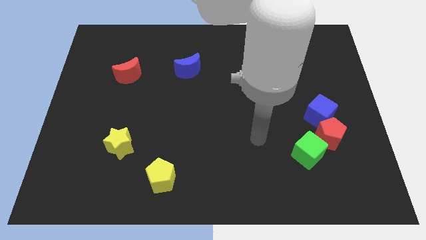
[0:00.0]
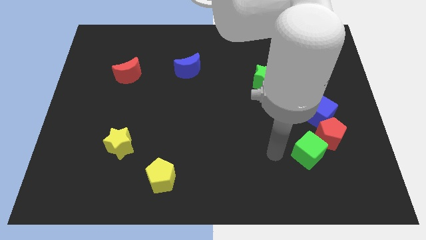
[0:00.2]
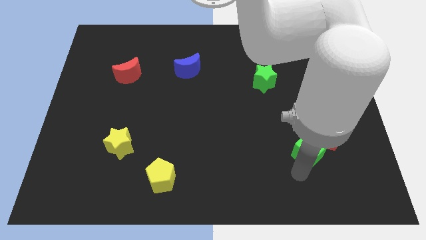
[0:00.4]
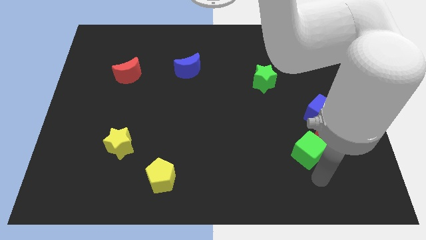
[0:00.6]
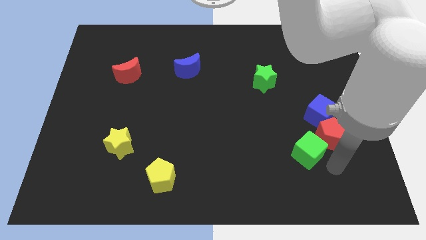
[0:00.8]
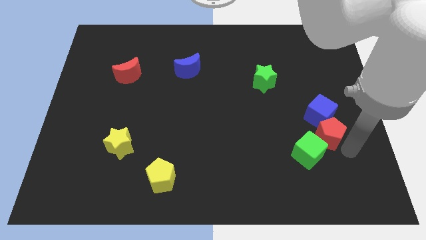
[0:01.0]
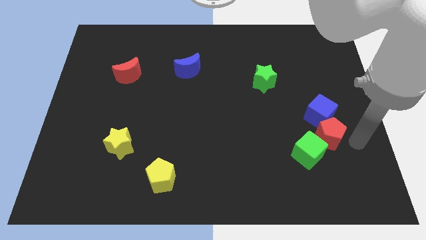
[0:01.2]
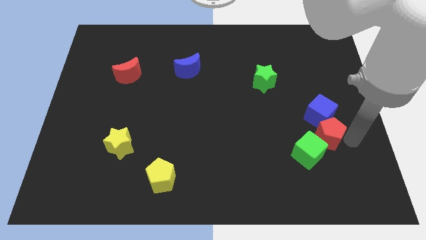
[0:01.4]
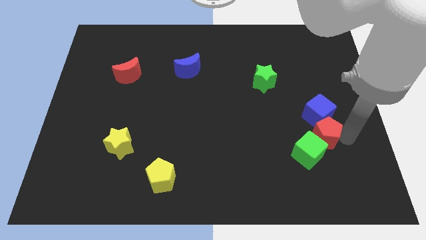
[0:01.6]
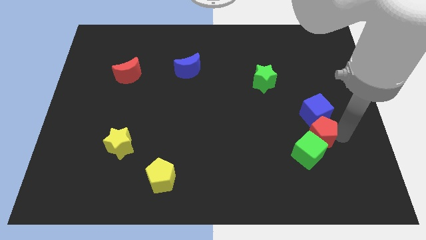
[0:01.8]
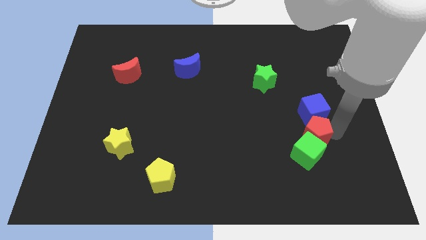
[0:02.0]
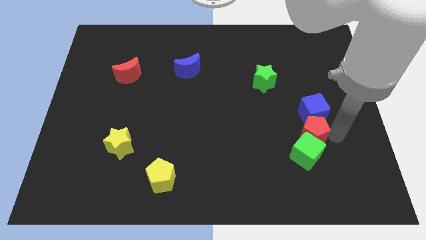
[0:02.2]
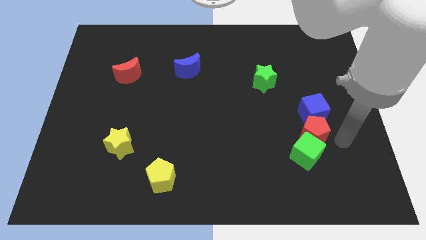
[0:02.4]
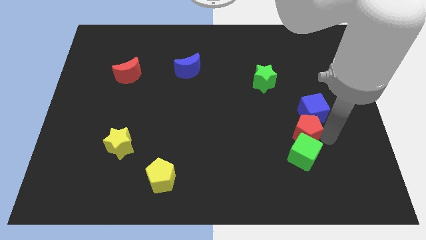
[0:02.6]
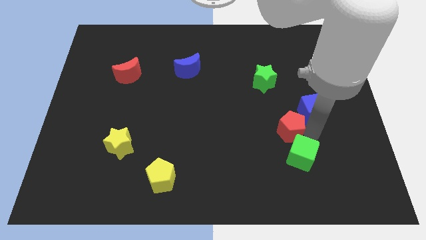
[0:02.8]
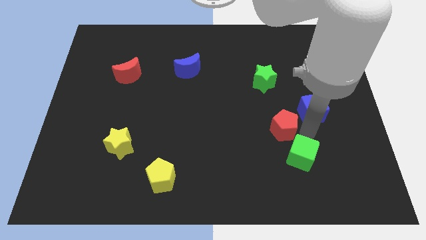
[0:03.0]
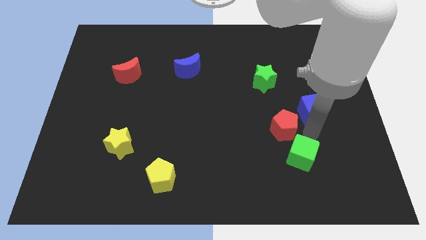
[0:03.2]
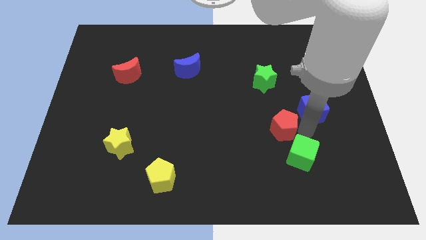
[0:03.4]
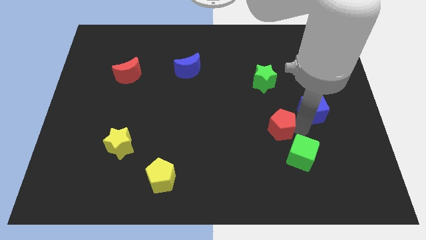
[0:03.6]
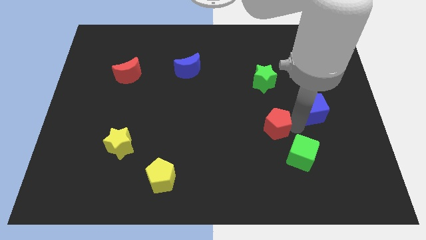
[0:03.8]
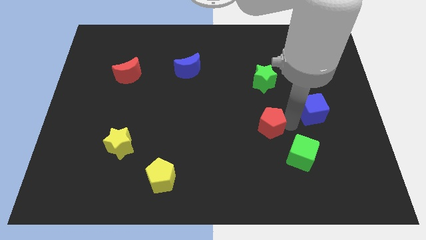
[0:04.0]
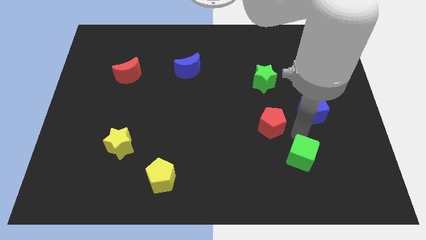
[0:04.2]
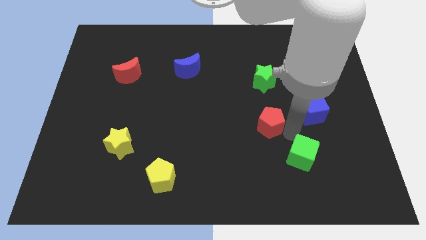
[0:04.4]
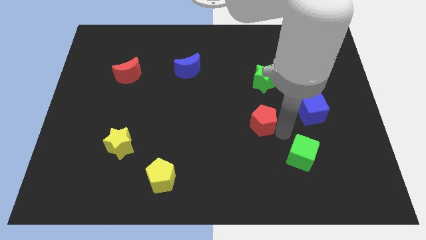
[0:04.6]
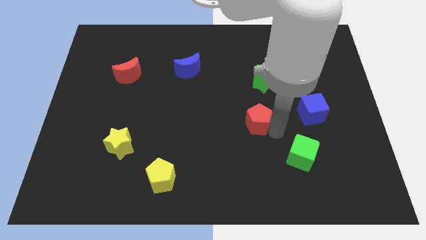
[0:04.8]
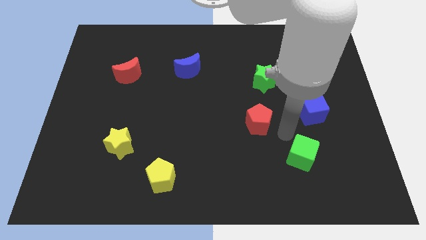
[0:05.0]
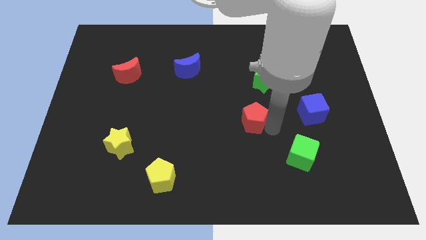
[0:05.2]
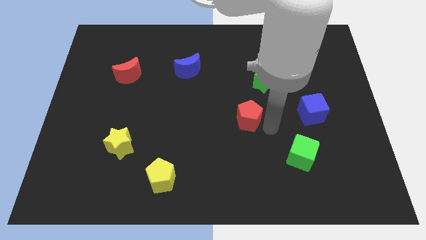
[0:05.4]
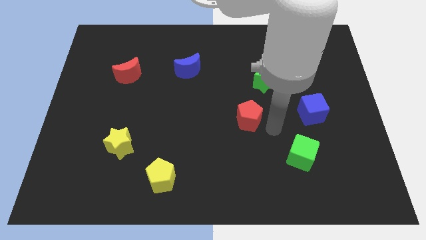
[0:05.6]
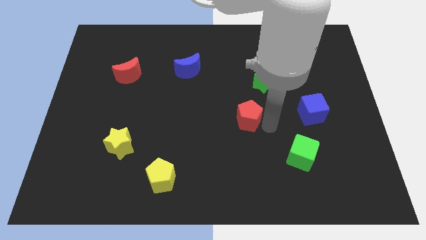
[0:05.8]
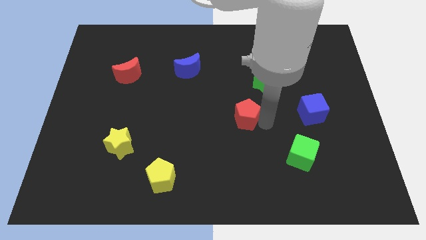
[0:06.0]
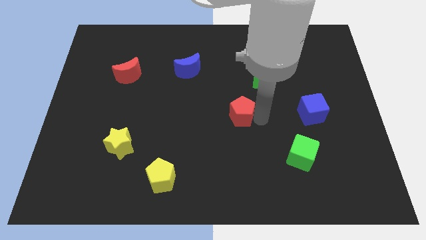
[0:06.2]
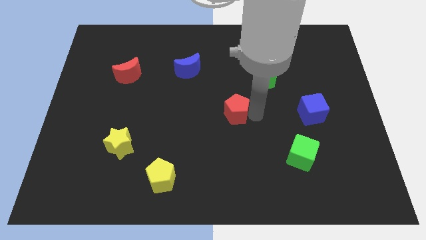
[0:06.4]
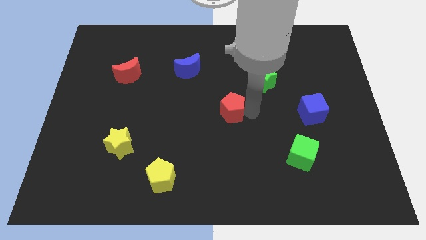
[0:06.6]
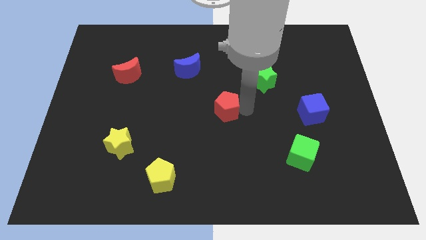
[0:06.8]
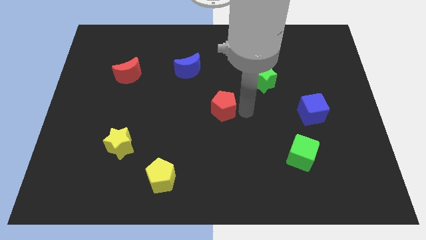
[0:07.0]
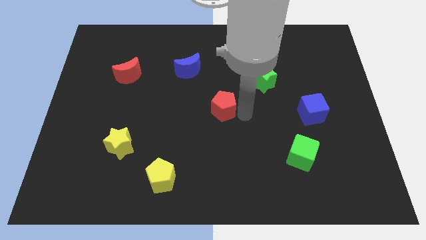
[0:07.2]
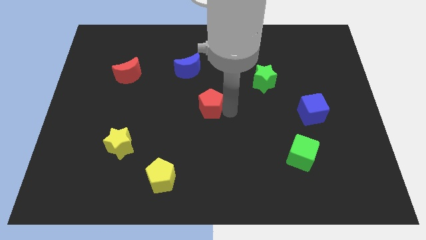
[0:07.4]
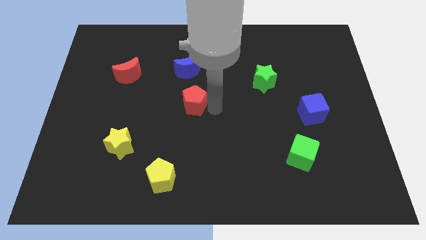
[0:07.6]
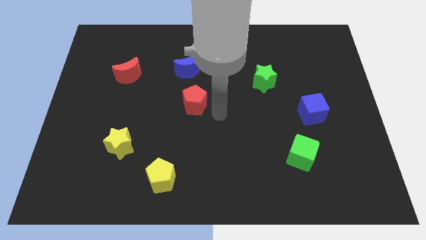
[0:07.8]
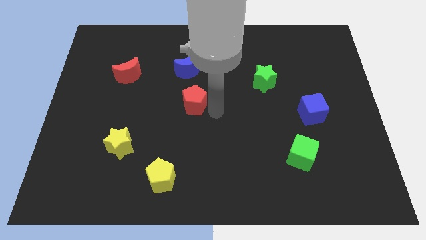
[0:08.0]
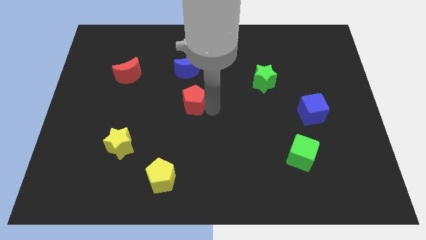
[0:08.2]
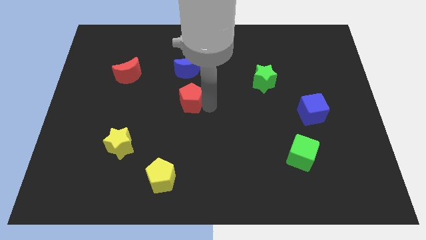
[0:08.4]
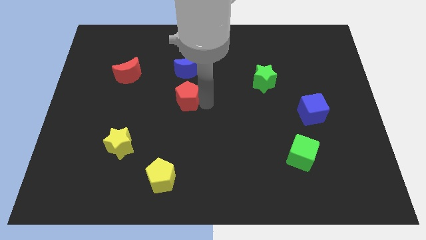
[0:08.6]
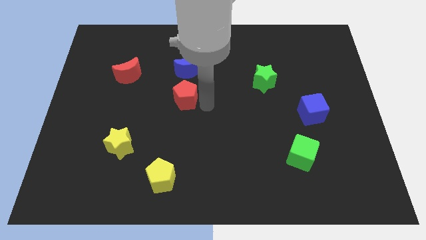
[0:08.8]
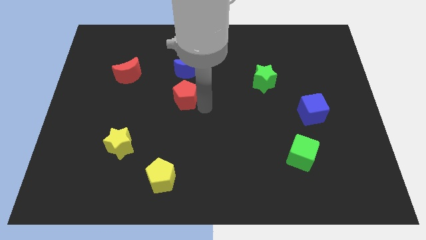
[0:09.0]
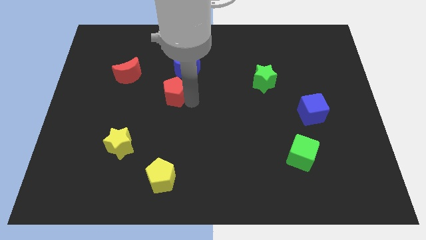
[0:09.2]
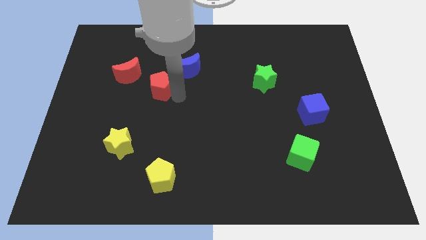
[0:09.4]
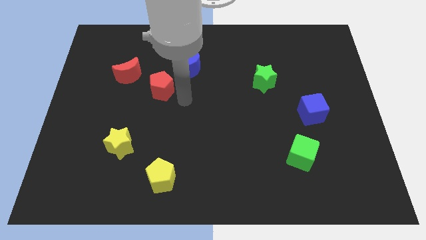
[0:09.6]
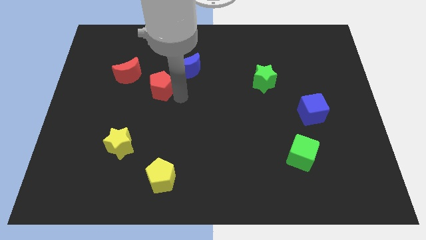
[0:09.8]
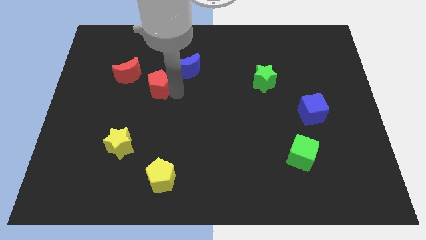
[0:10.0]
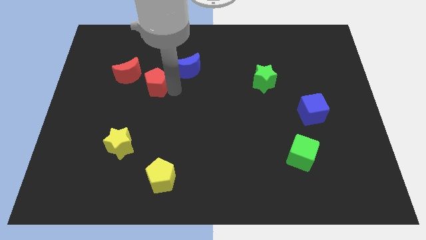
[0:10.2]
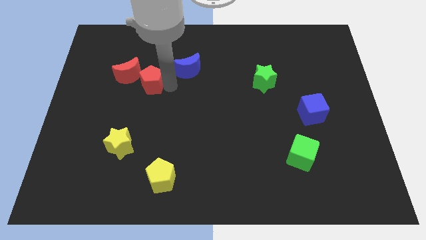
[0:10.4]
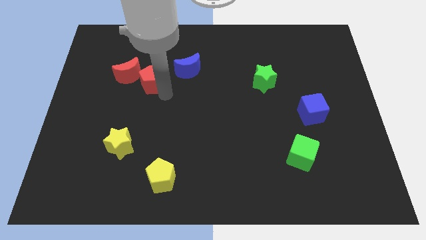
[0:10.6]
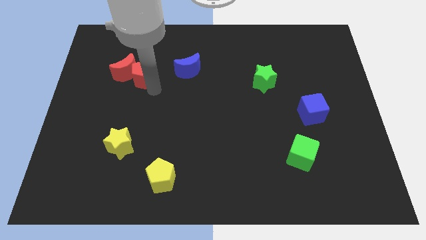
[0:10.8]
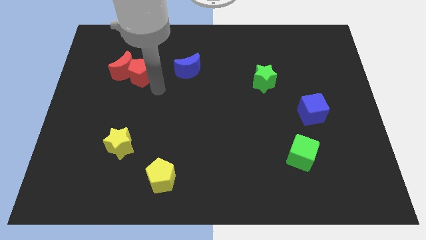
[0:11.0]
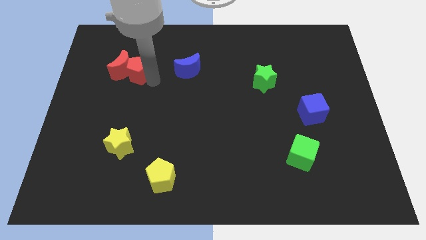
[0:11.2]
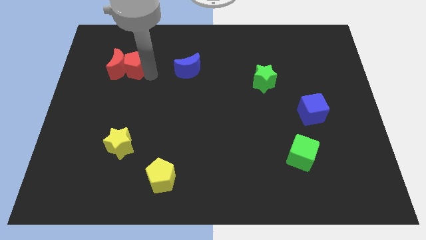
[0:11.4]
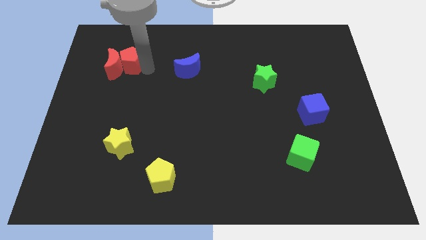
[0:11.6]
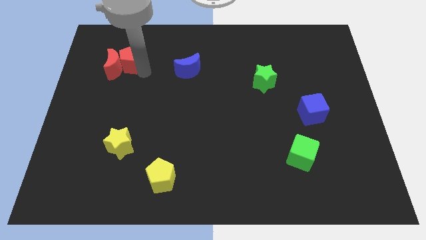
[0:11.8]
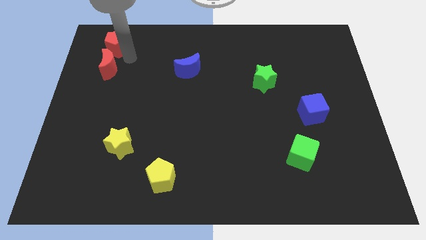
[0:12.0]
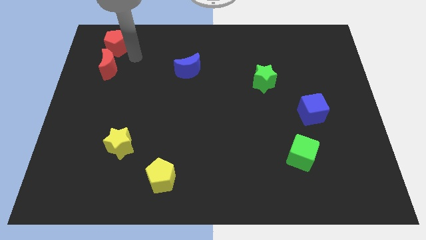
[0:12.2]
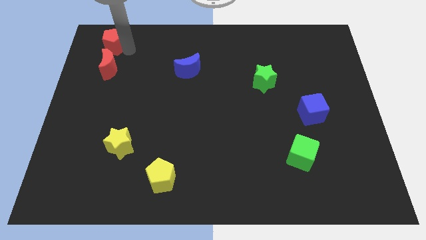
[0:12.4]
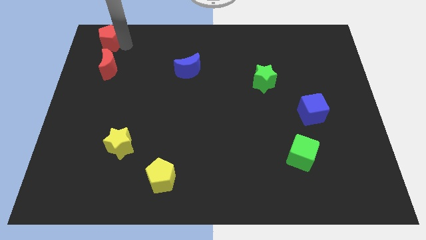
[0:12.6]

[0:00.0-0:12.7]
push the red pentagon to the top left corner

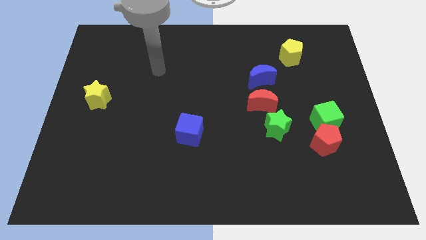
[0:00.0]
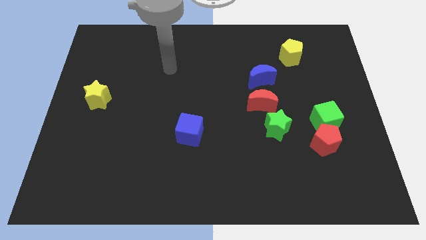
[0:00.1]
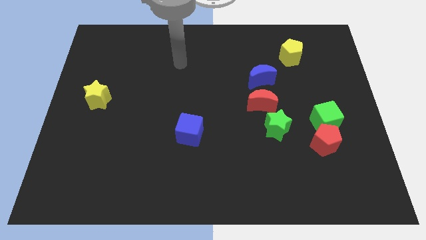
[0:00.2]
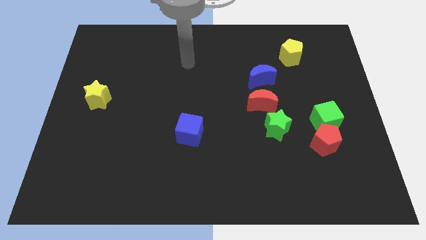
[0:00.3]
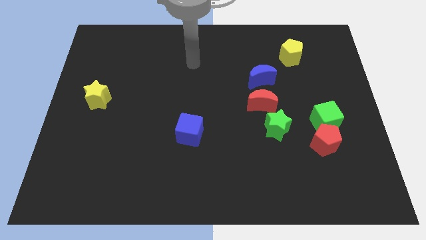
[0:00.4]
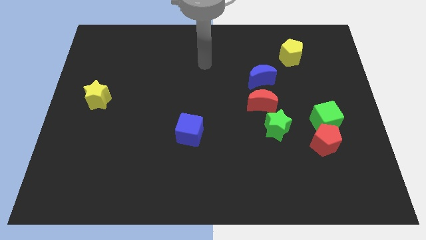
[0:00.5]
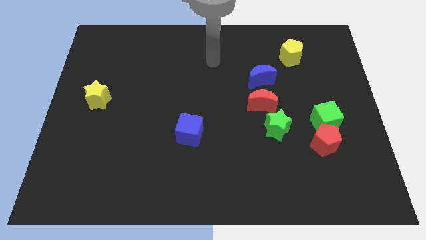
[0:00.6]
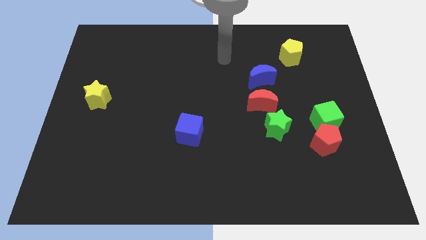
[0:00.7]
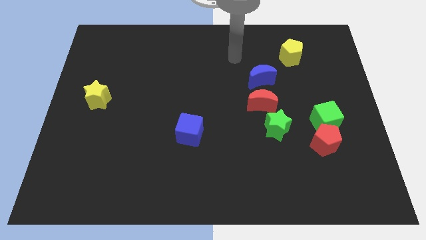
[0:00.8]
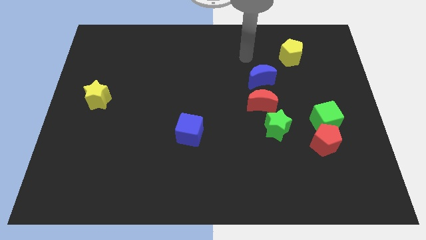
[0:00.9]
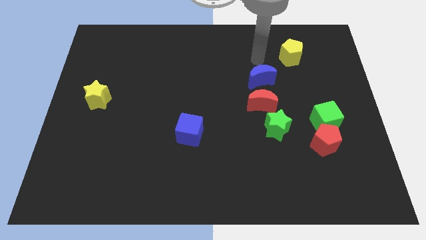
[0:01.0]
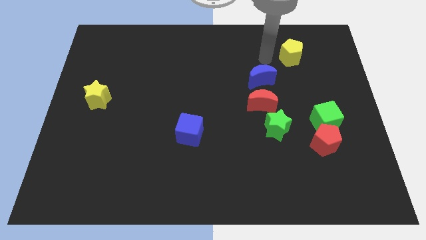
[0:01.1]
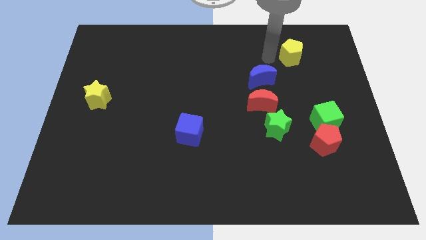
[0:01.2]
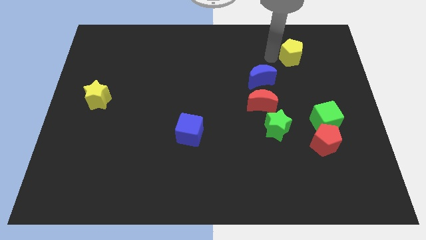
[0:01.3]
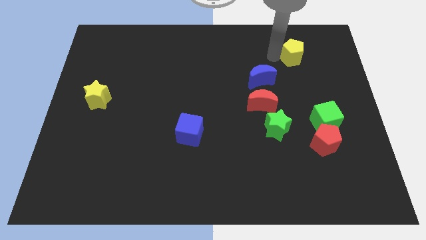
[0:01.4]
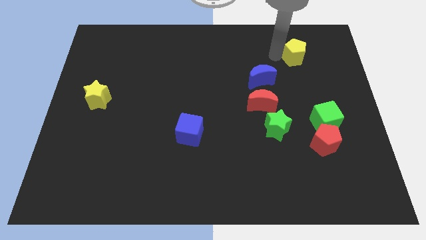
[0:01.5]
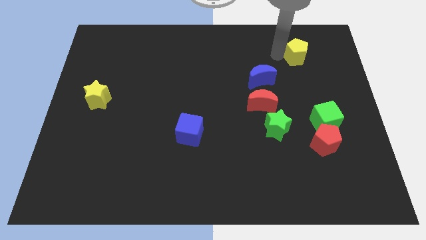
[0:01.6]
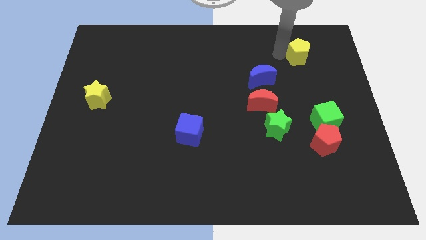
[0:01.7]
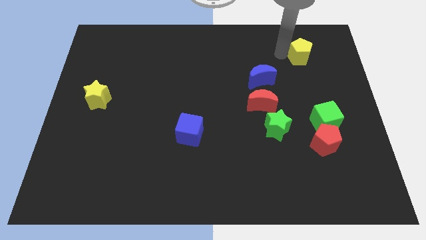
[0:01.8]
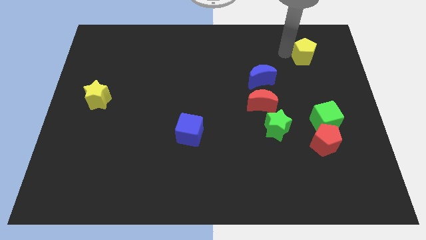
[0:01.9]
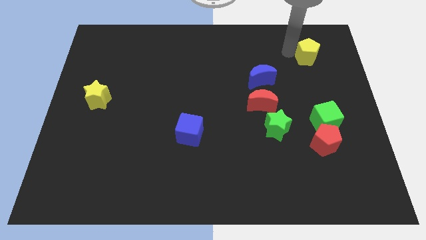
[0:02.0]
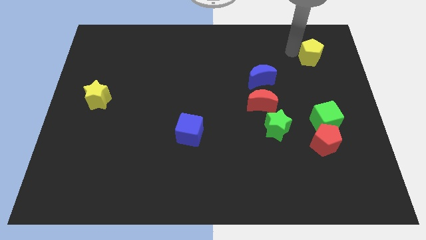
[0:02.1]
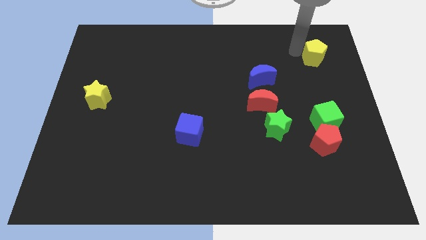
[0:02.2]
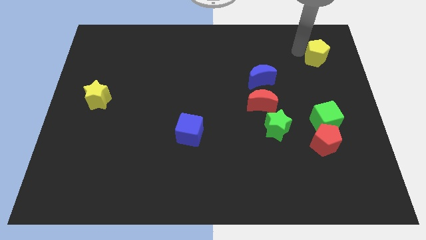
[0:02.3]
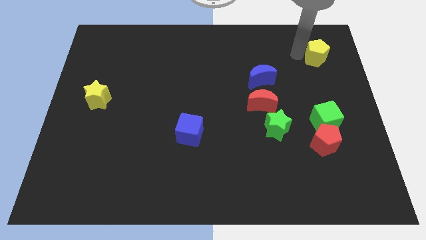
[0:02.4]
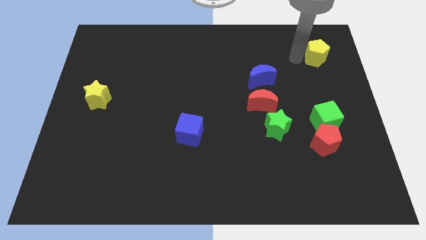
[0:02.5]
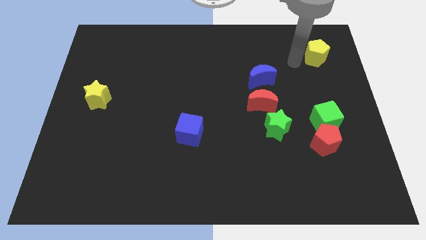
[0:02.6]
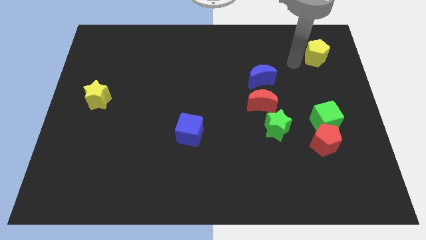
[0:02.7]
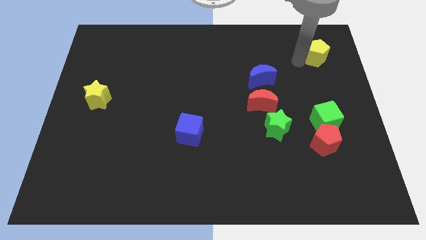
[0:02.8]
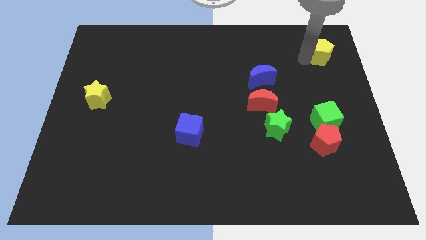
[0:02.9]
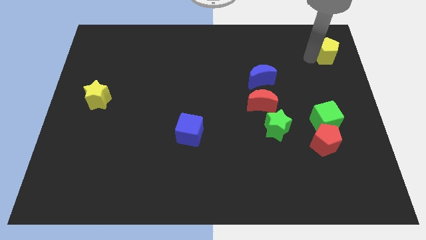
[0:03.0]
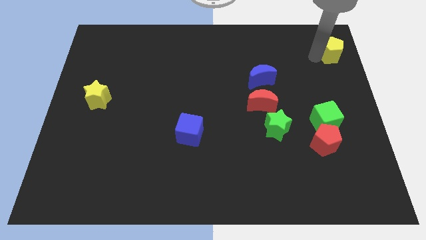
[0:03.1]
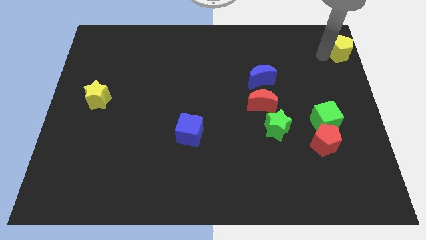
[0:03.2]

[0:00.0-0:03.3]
slide the yellow pentagon to the top right
